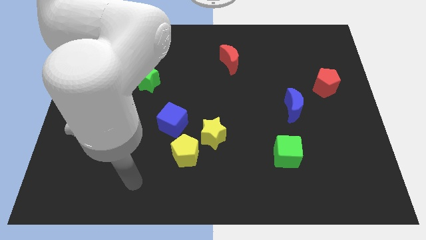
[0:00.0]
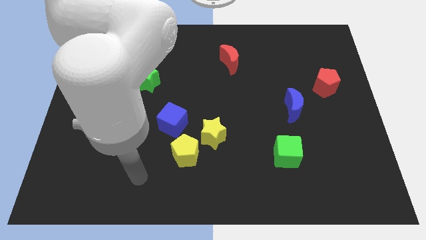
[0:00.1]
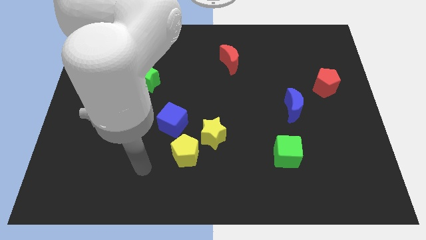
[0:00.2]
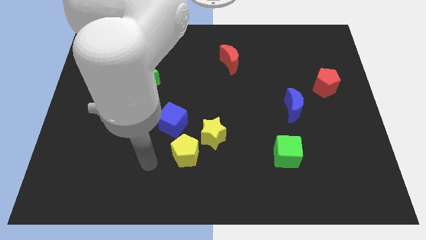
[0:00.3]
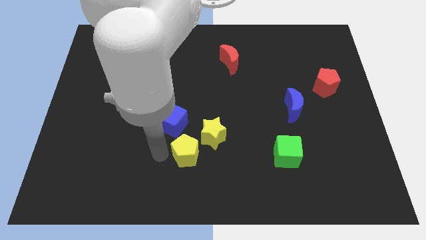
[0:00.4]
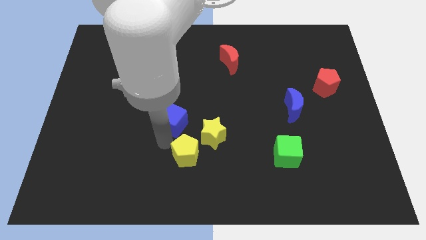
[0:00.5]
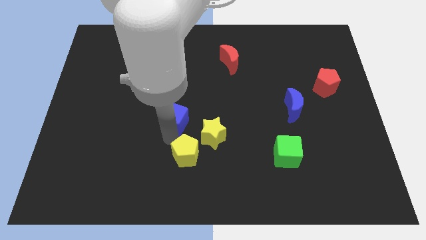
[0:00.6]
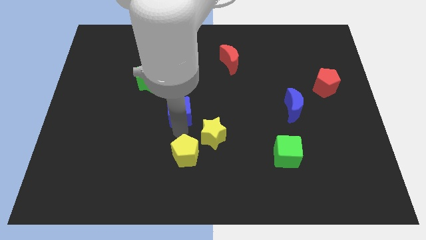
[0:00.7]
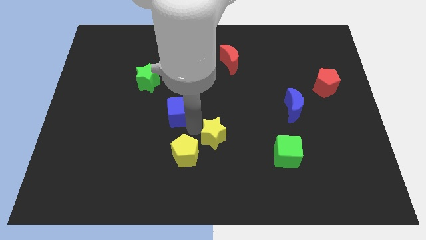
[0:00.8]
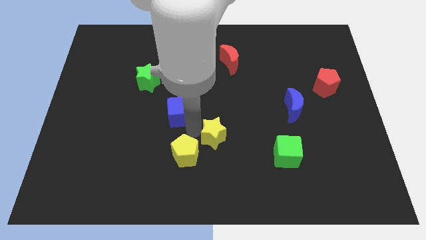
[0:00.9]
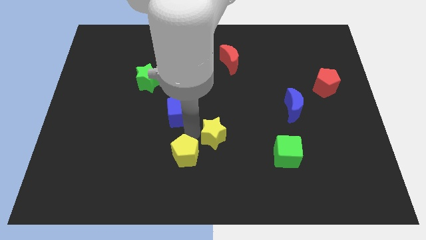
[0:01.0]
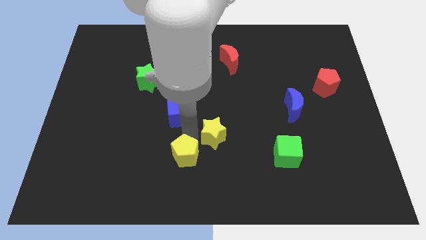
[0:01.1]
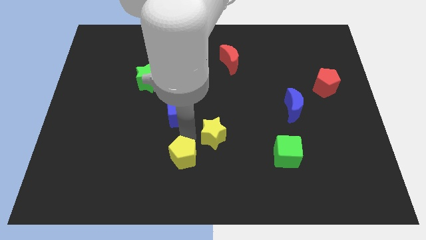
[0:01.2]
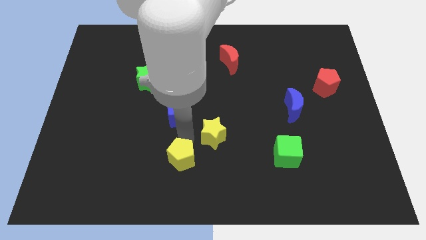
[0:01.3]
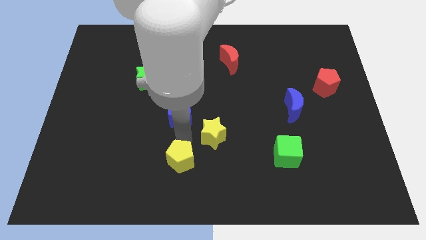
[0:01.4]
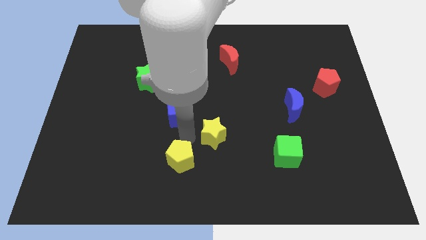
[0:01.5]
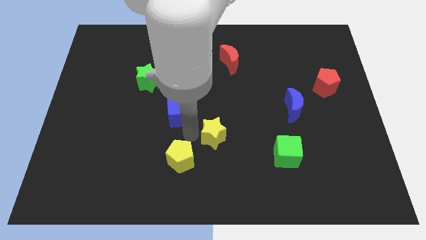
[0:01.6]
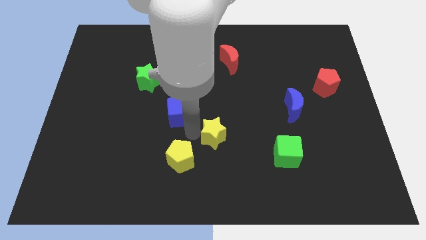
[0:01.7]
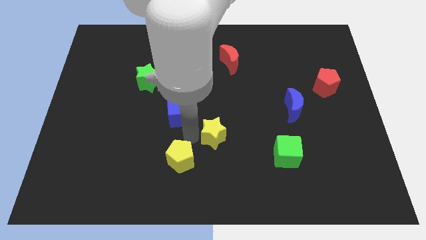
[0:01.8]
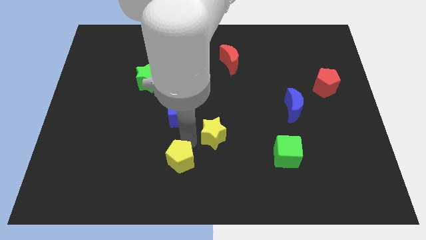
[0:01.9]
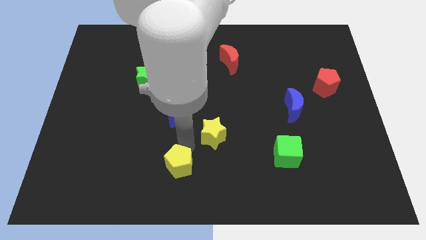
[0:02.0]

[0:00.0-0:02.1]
move the yellow pentagon away from the yellow star and blue cube

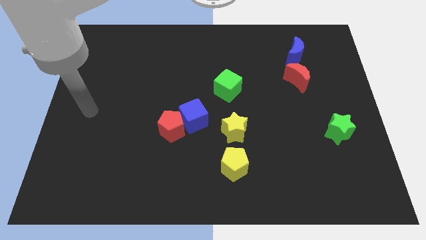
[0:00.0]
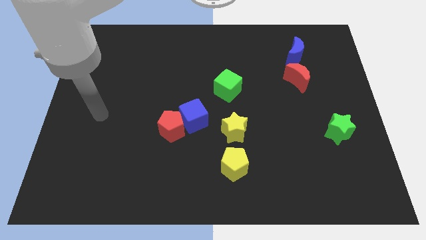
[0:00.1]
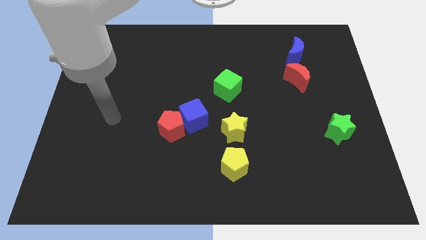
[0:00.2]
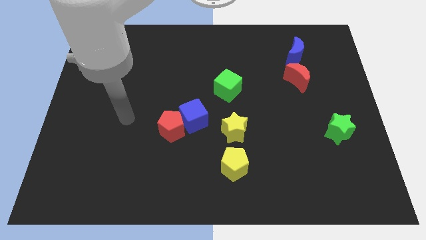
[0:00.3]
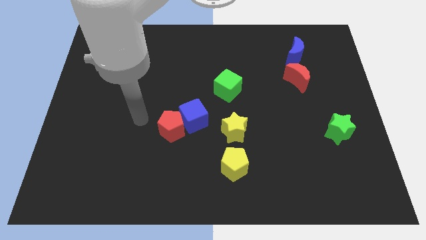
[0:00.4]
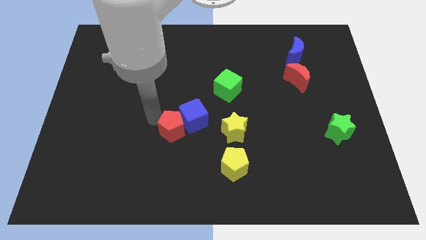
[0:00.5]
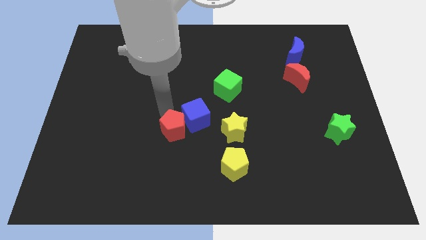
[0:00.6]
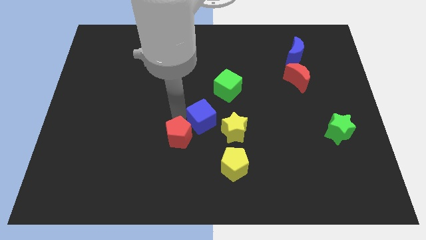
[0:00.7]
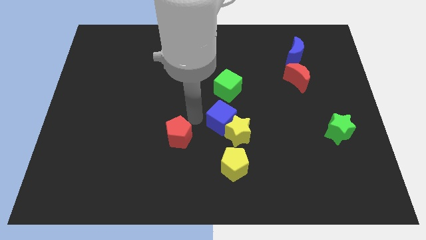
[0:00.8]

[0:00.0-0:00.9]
move the red pentagon away from the blue cube

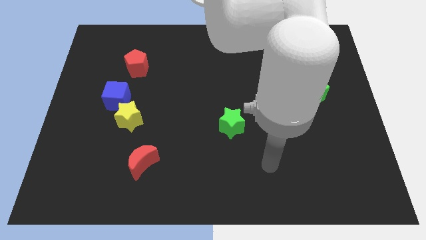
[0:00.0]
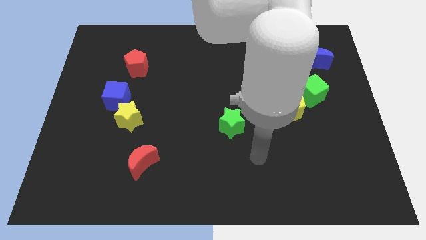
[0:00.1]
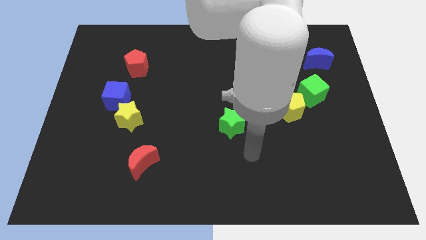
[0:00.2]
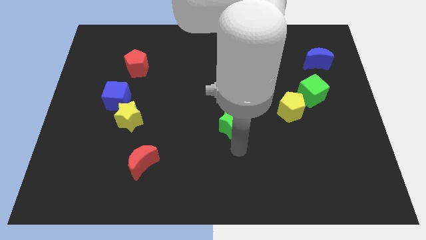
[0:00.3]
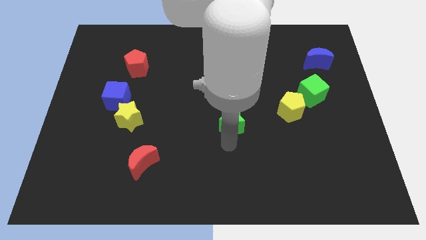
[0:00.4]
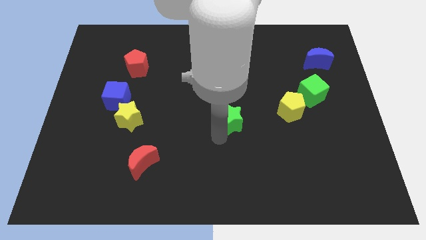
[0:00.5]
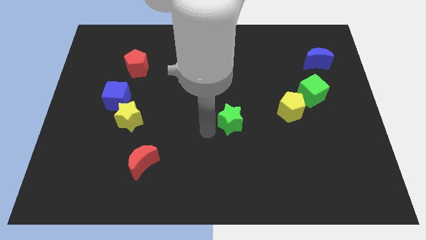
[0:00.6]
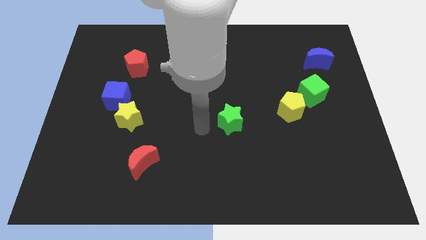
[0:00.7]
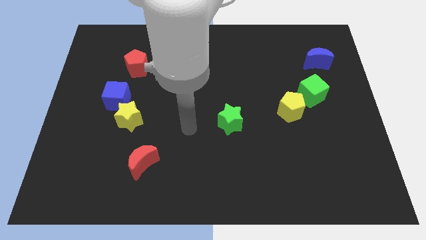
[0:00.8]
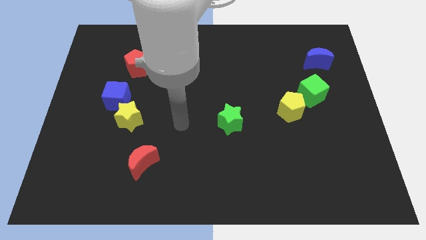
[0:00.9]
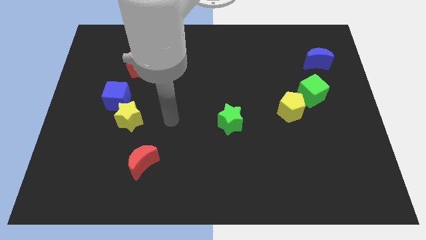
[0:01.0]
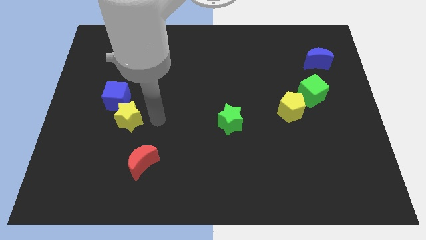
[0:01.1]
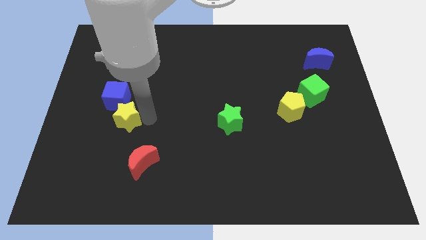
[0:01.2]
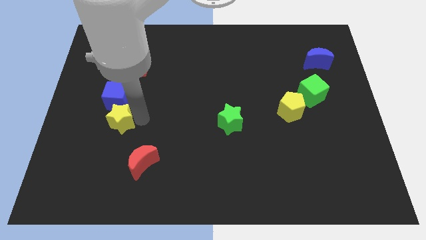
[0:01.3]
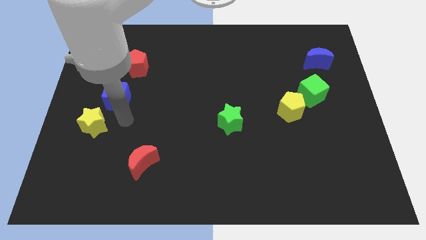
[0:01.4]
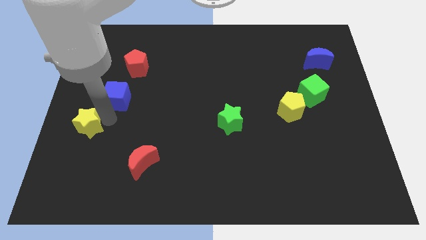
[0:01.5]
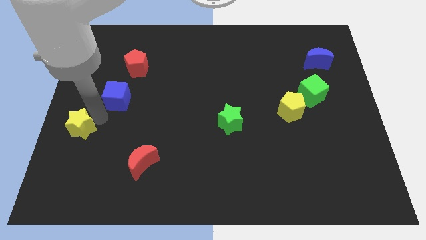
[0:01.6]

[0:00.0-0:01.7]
pull the blue cube apart from the yellow star

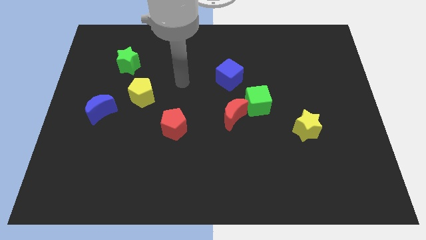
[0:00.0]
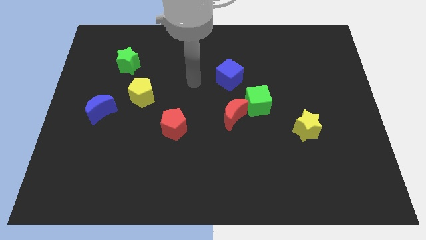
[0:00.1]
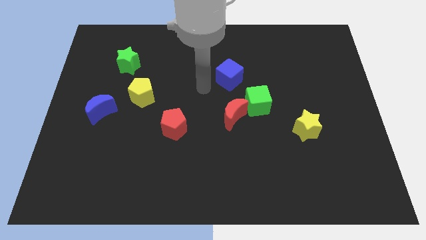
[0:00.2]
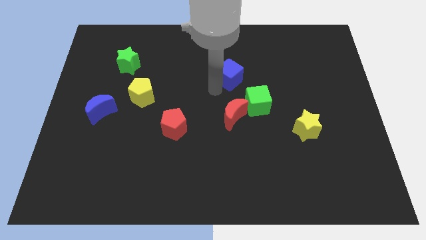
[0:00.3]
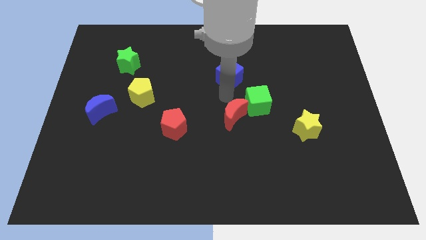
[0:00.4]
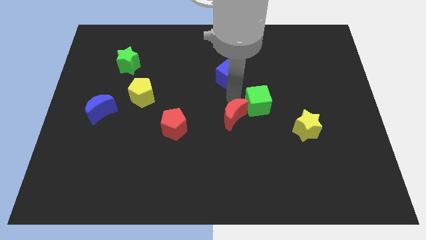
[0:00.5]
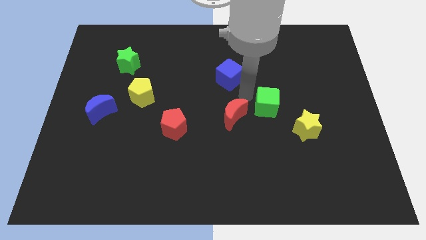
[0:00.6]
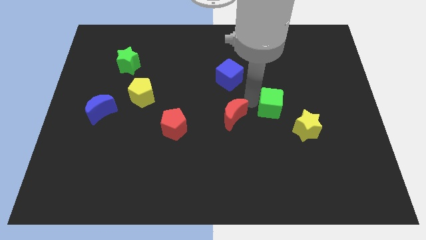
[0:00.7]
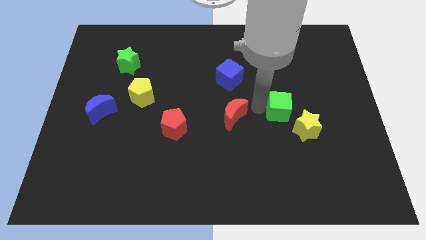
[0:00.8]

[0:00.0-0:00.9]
pull the red moon apart from the green cube

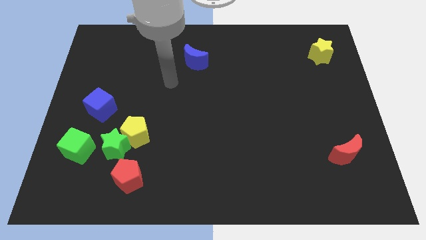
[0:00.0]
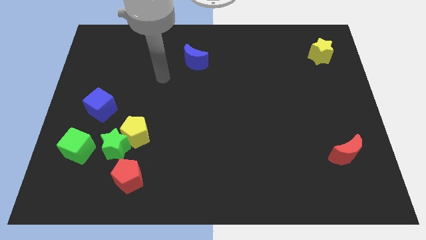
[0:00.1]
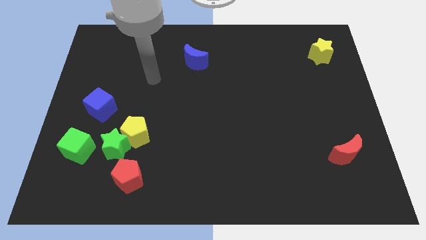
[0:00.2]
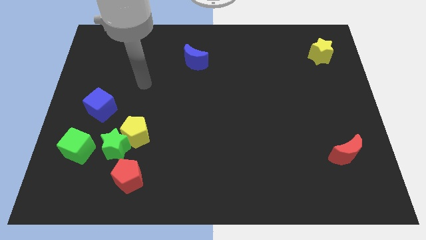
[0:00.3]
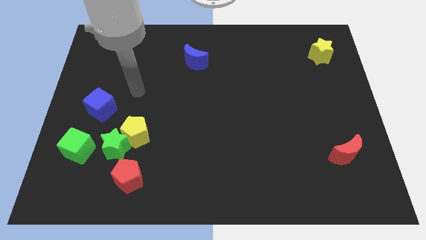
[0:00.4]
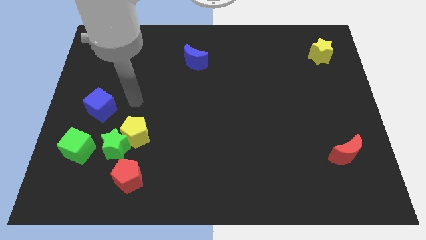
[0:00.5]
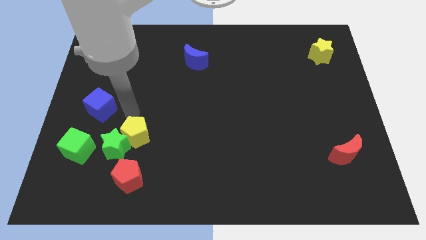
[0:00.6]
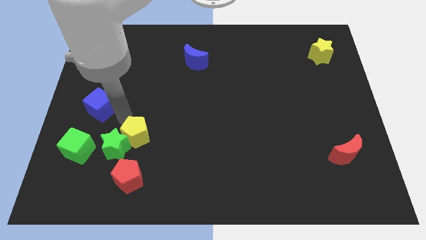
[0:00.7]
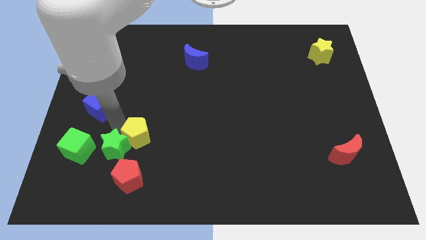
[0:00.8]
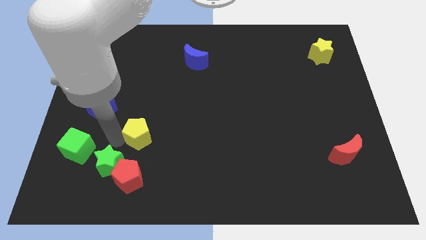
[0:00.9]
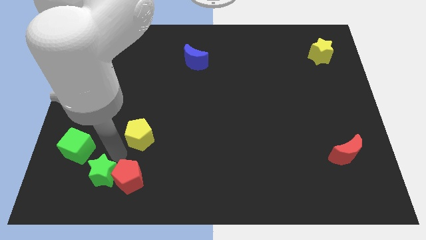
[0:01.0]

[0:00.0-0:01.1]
pull the yellow pentagon apart from the green star

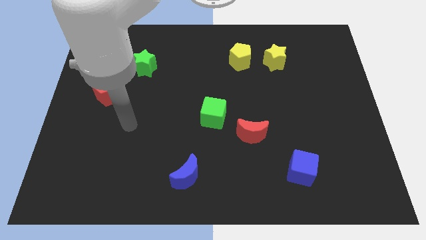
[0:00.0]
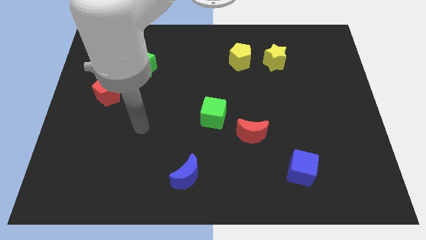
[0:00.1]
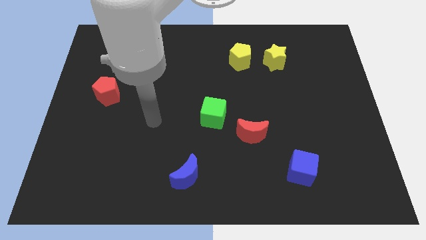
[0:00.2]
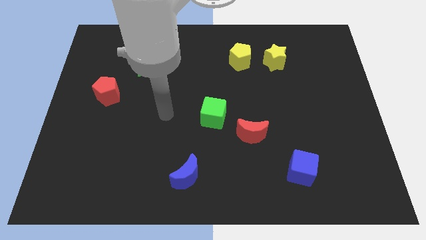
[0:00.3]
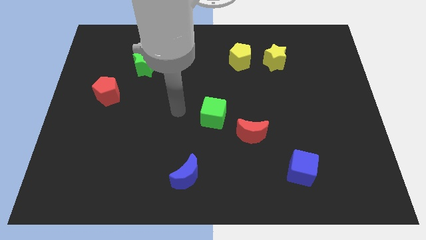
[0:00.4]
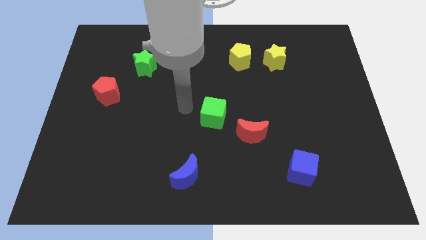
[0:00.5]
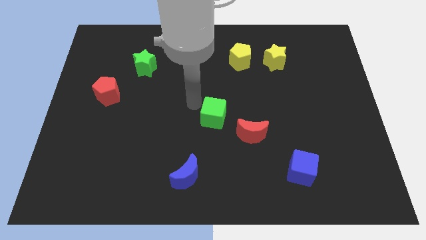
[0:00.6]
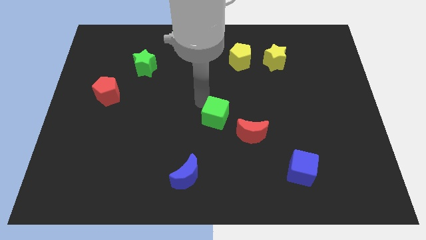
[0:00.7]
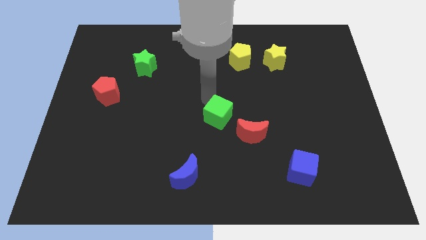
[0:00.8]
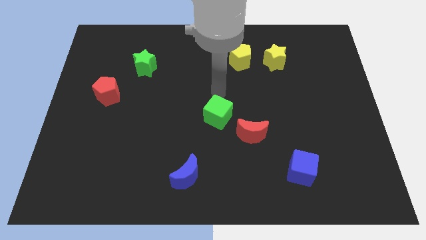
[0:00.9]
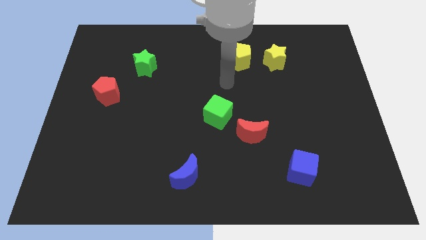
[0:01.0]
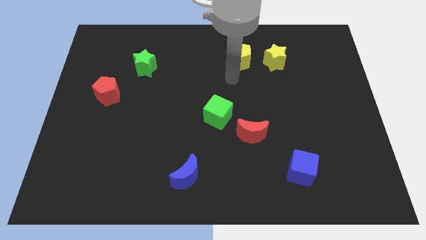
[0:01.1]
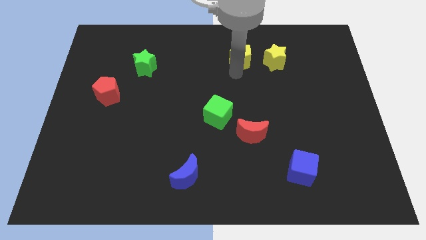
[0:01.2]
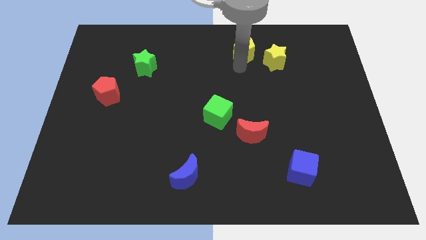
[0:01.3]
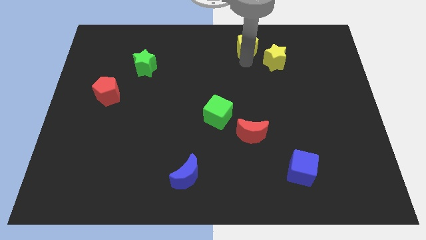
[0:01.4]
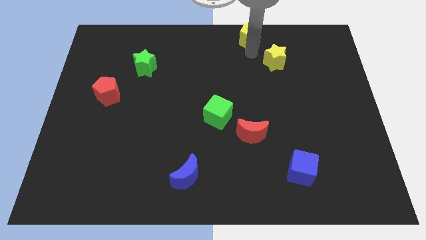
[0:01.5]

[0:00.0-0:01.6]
pull the yellow star apart from the yellow pentagon

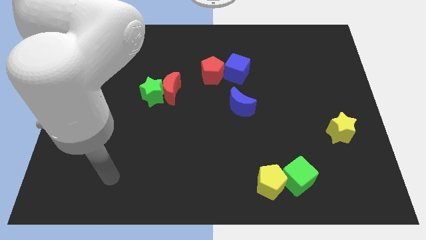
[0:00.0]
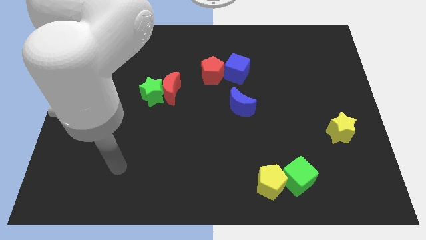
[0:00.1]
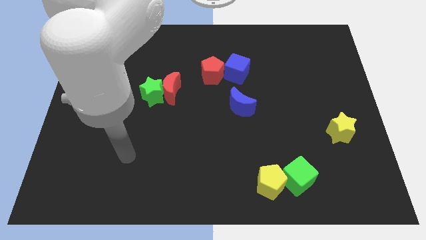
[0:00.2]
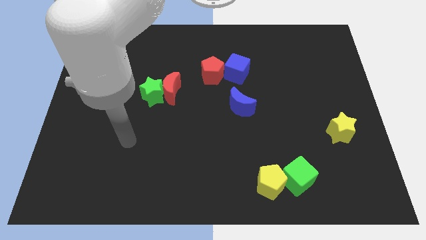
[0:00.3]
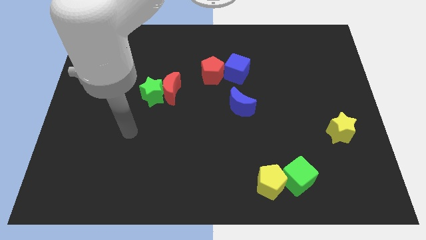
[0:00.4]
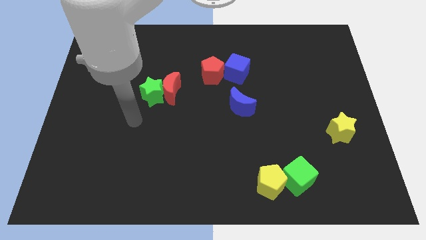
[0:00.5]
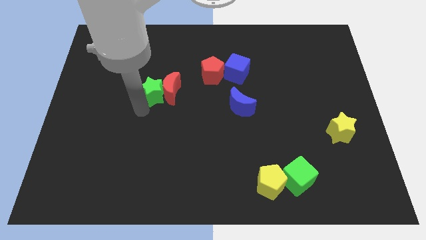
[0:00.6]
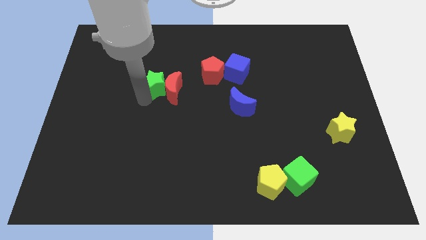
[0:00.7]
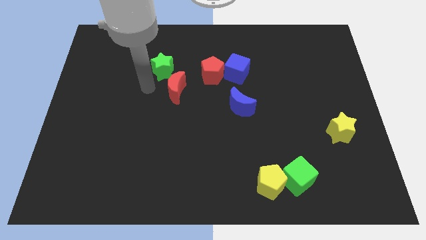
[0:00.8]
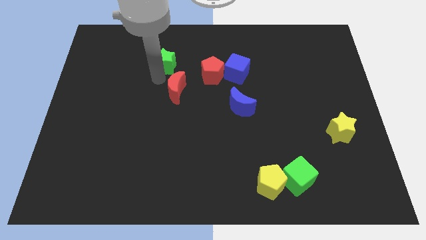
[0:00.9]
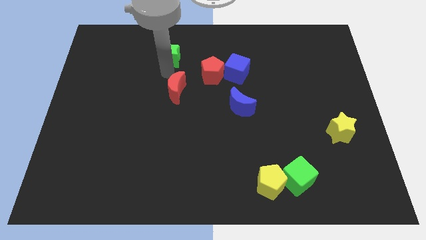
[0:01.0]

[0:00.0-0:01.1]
separate the red moon from the green star
